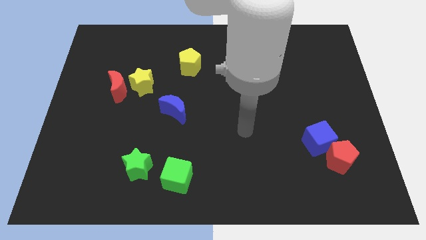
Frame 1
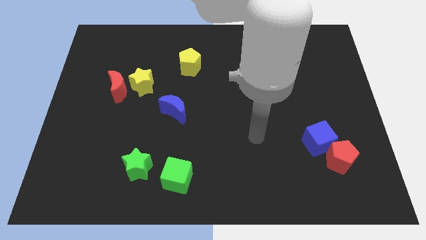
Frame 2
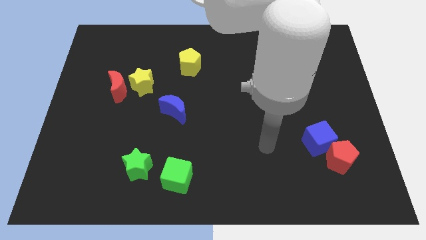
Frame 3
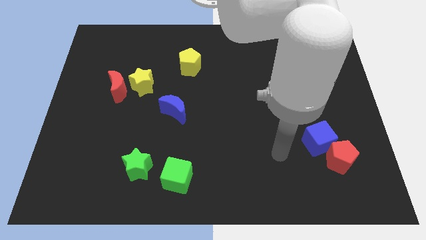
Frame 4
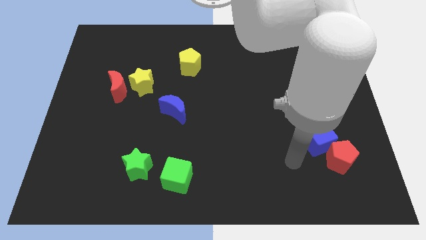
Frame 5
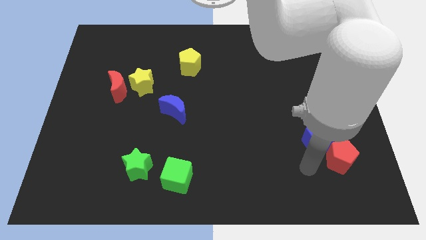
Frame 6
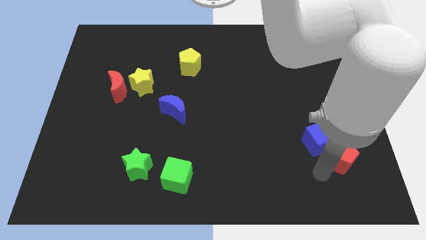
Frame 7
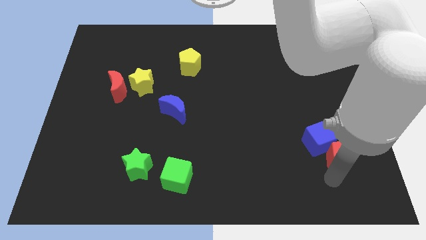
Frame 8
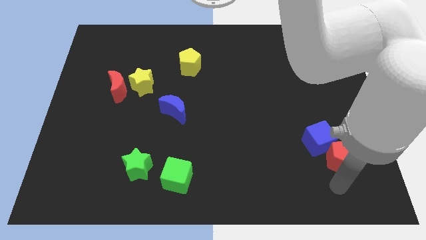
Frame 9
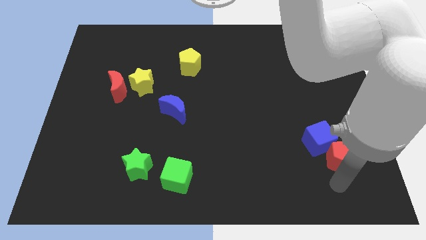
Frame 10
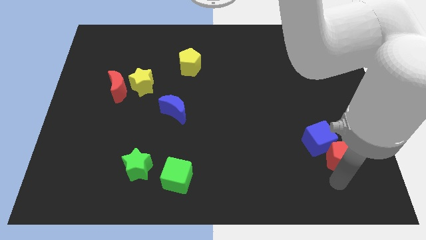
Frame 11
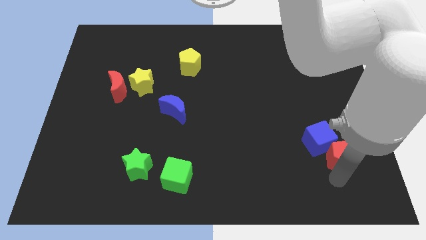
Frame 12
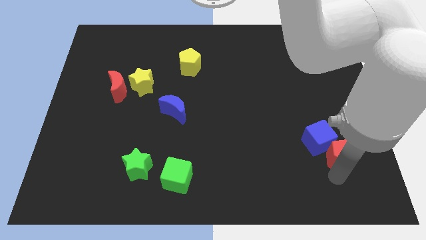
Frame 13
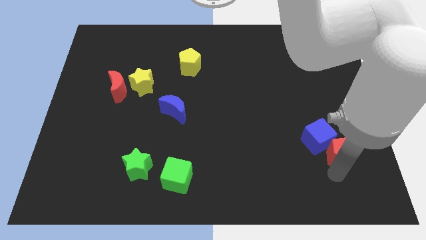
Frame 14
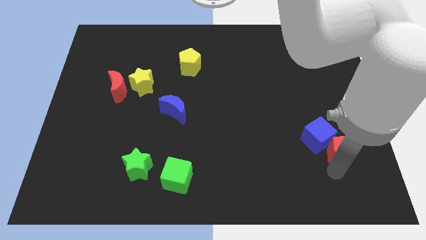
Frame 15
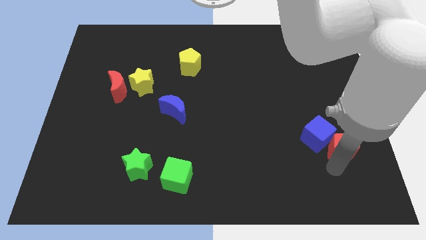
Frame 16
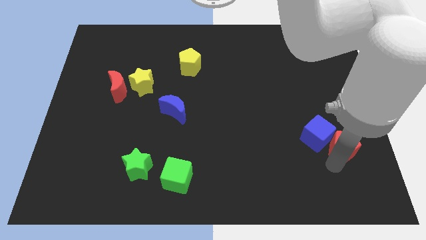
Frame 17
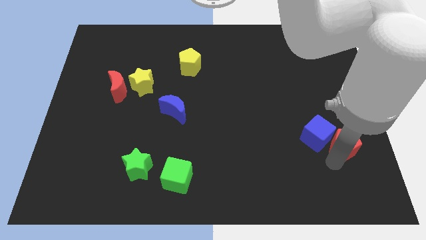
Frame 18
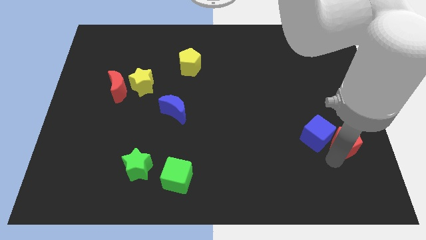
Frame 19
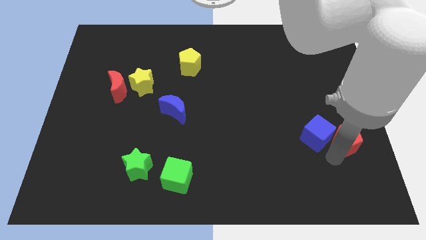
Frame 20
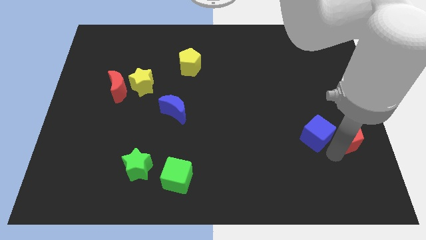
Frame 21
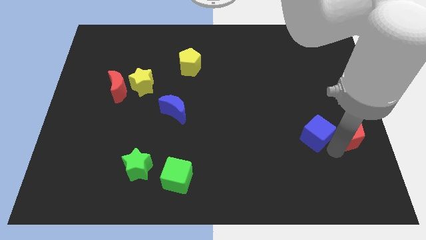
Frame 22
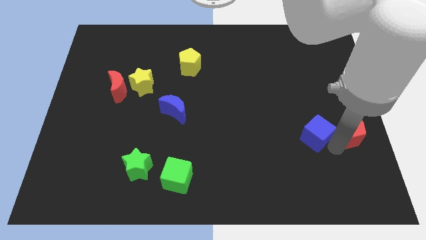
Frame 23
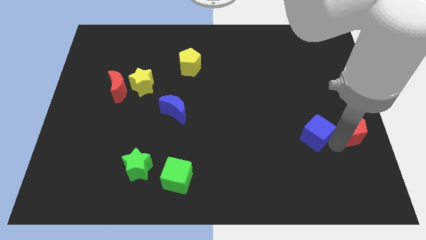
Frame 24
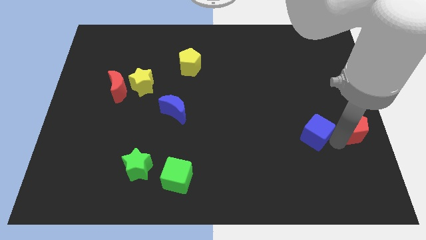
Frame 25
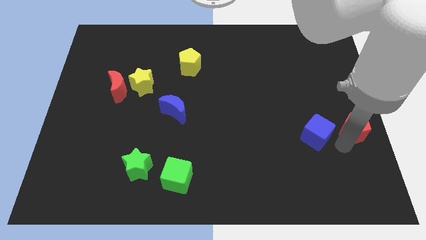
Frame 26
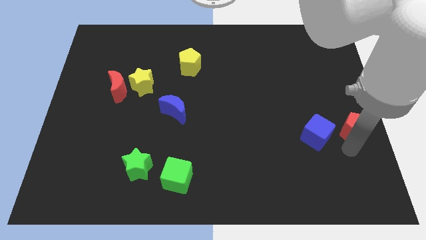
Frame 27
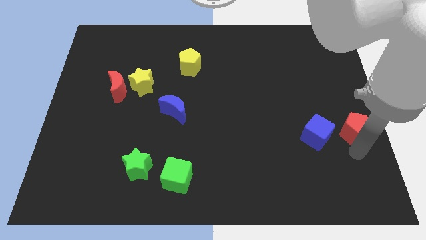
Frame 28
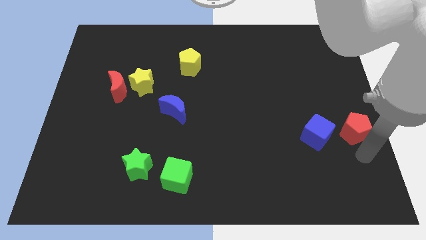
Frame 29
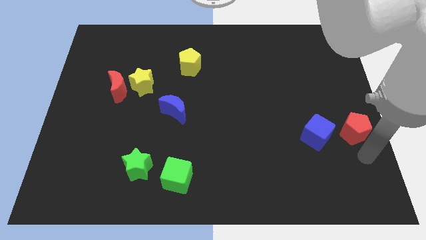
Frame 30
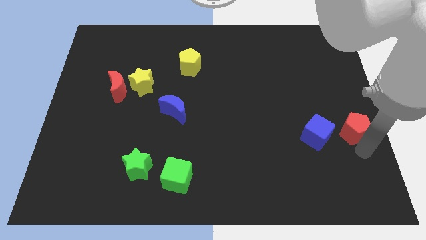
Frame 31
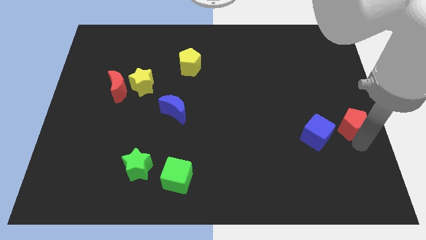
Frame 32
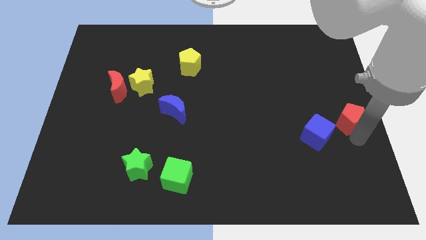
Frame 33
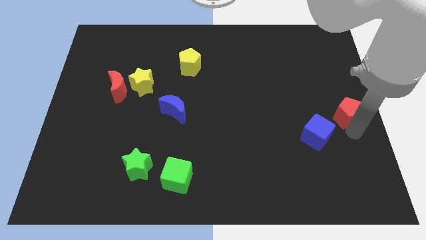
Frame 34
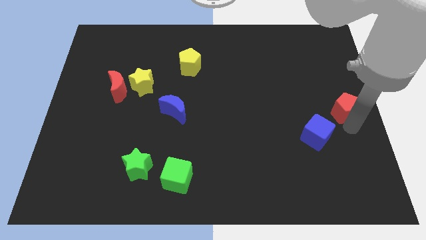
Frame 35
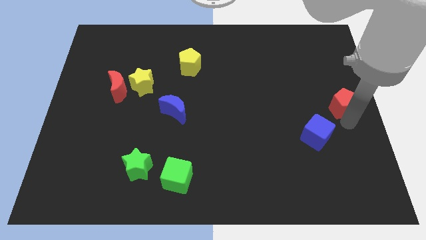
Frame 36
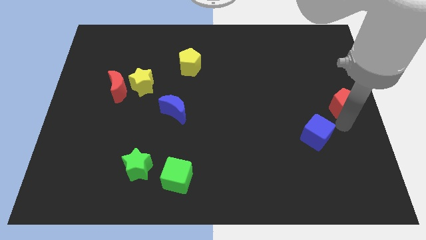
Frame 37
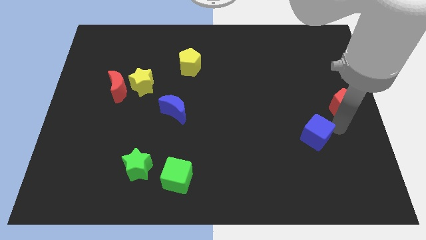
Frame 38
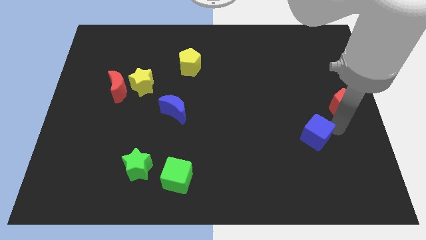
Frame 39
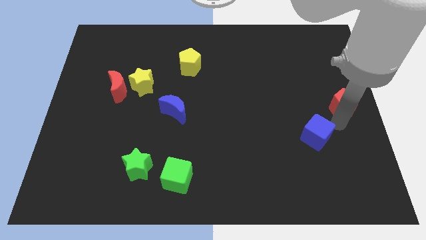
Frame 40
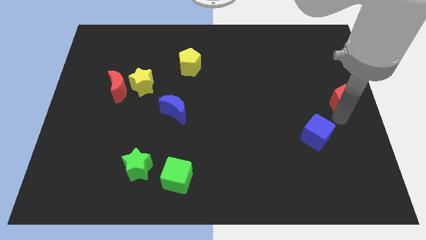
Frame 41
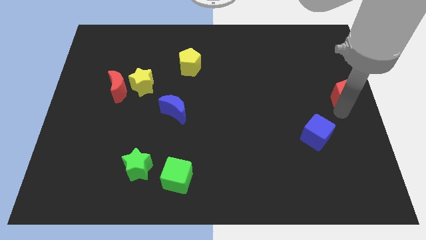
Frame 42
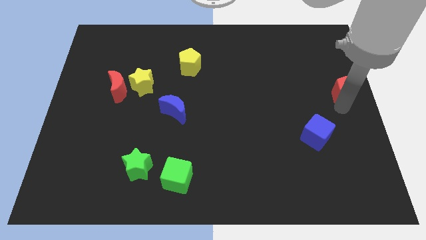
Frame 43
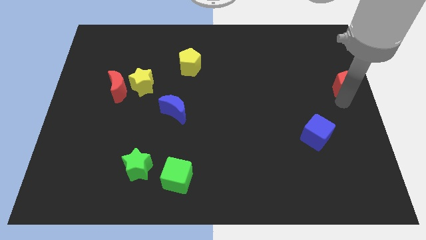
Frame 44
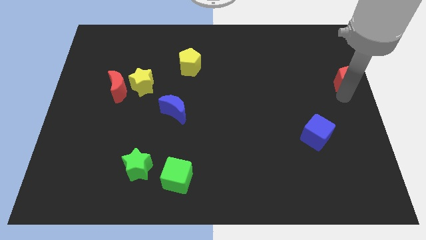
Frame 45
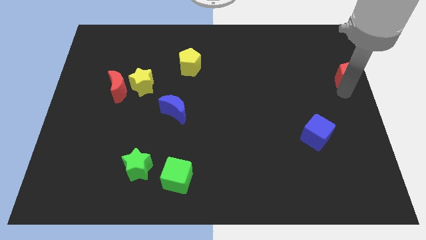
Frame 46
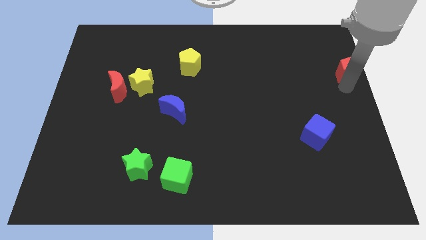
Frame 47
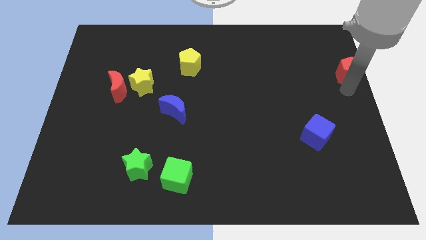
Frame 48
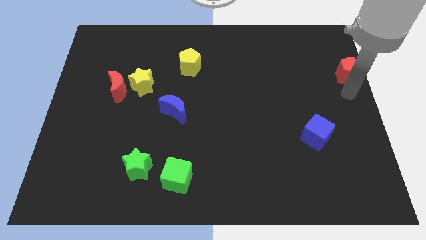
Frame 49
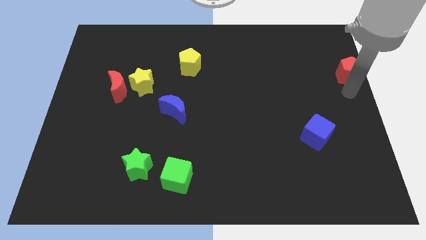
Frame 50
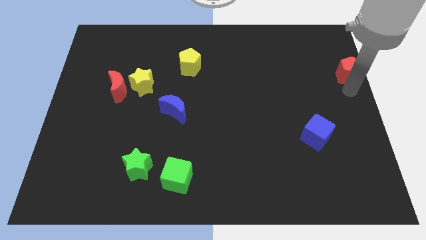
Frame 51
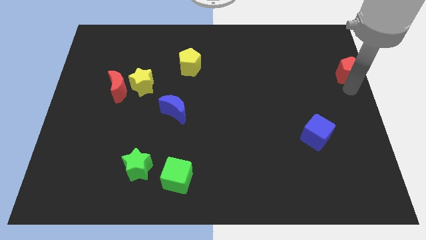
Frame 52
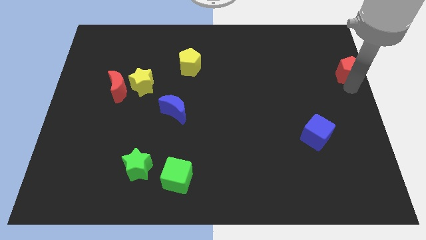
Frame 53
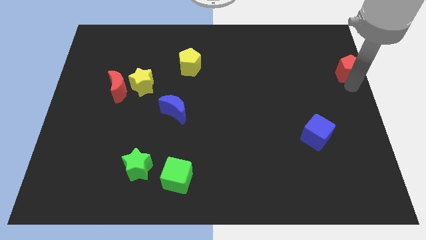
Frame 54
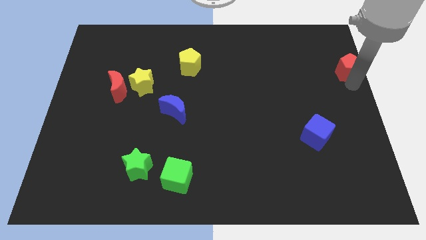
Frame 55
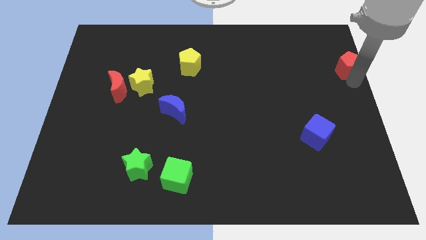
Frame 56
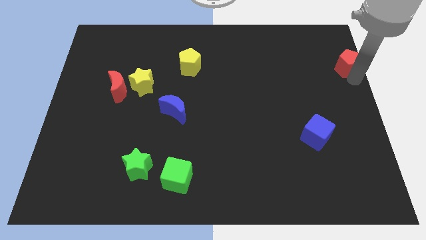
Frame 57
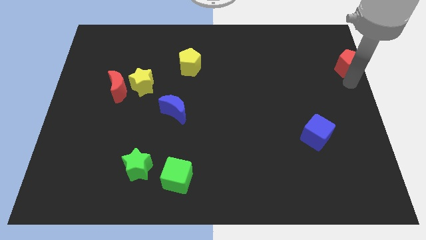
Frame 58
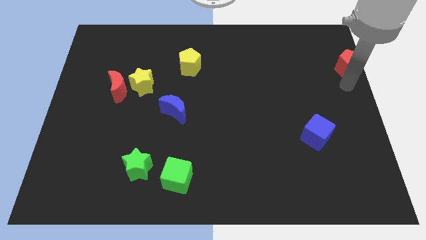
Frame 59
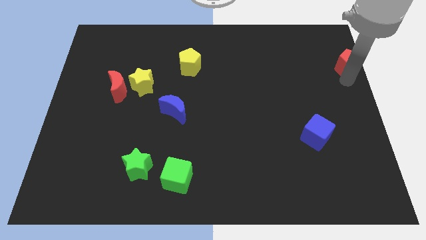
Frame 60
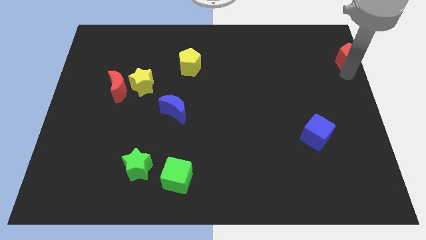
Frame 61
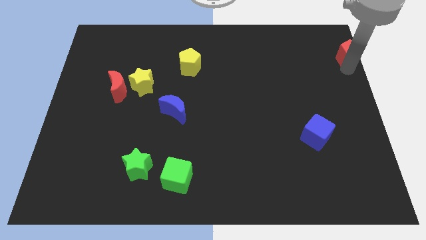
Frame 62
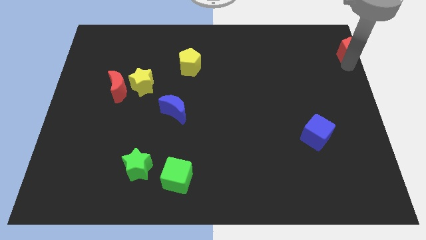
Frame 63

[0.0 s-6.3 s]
move the red pentagon to the top right corner

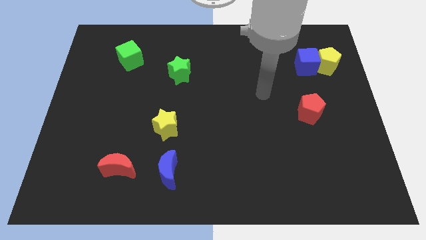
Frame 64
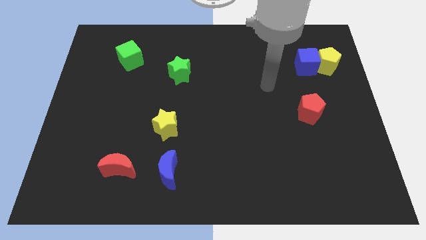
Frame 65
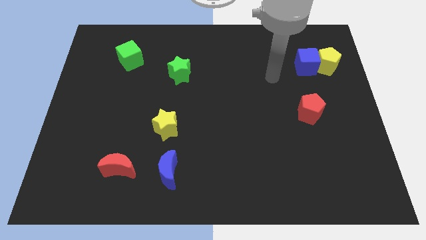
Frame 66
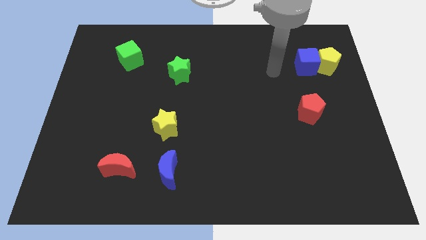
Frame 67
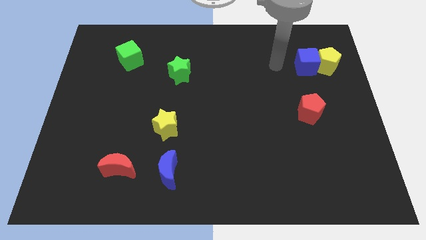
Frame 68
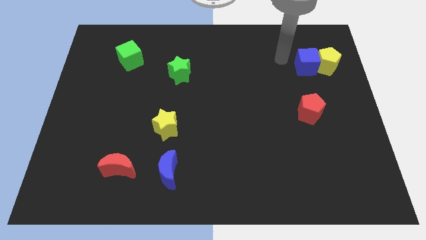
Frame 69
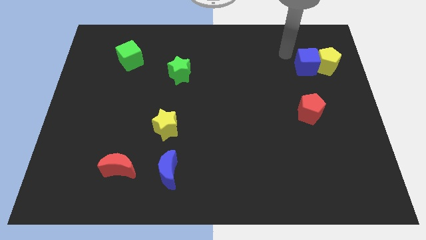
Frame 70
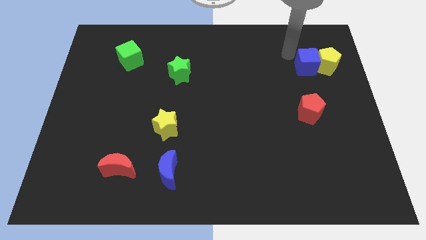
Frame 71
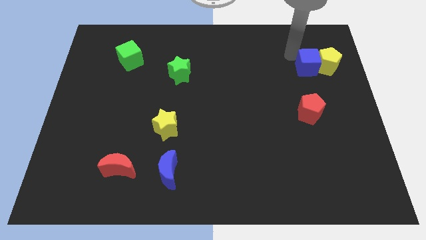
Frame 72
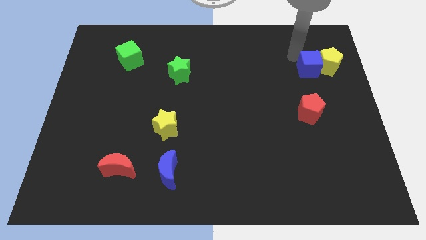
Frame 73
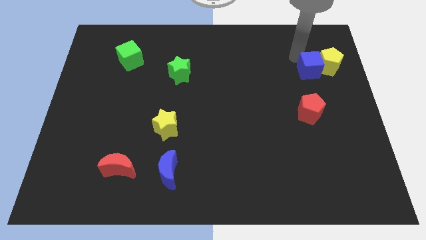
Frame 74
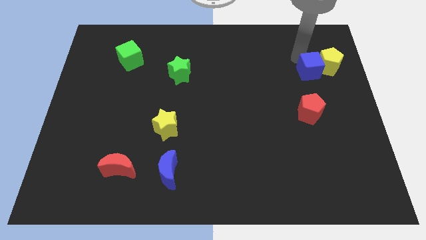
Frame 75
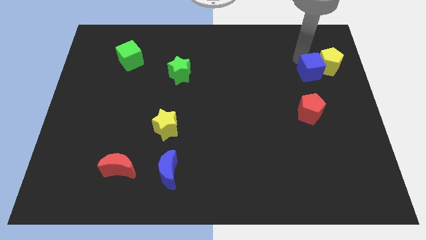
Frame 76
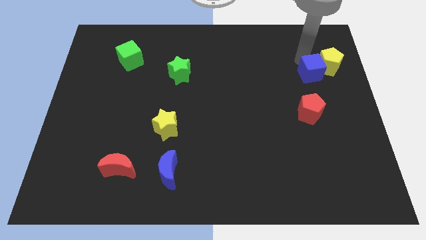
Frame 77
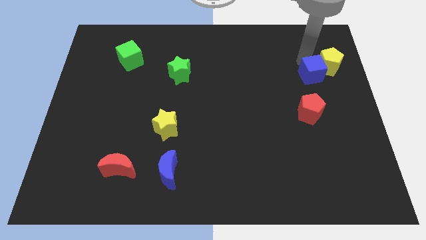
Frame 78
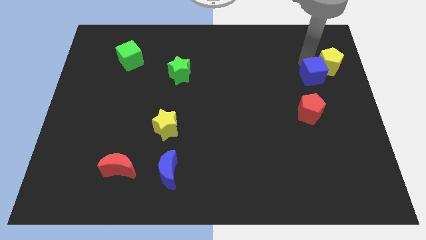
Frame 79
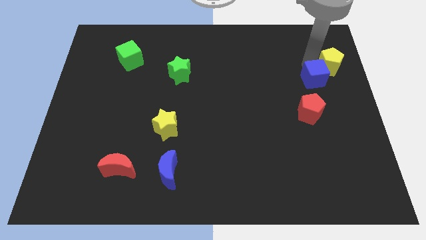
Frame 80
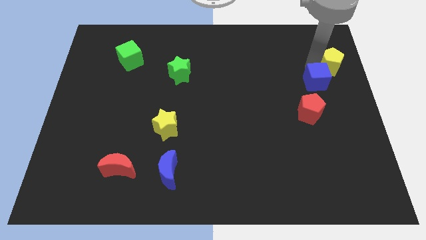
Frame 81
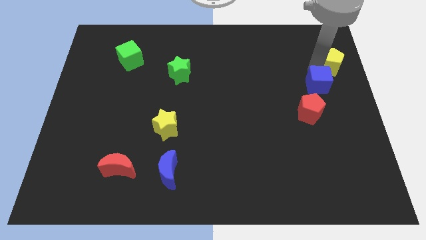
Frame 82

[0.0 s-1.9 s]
push the blue cube to the right side of the board
